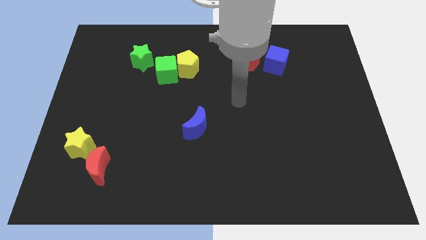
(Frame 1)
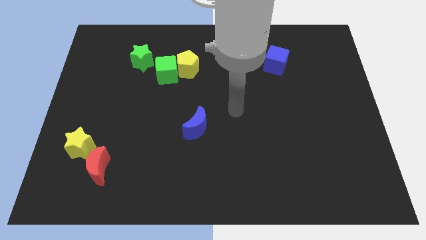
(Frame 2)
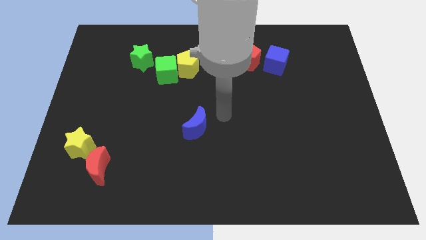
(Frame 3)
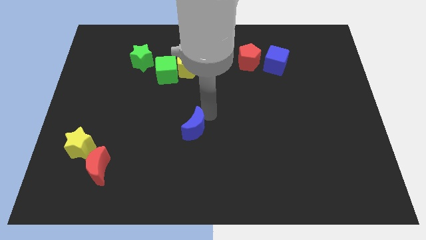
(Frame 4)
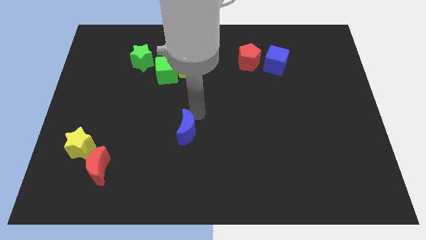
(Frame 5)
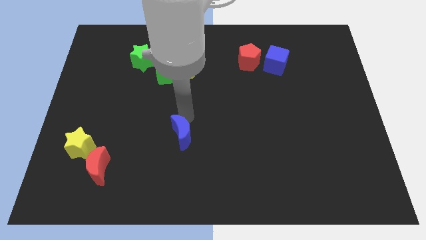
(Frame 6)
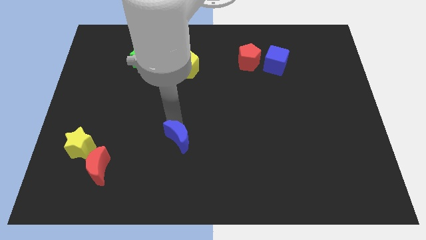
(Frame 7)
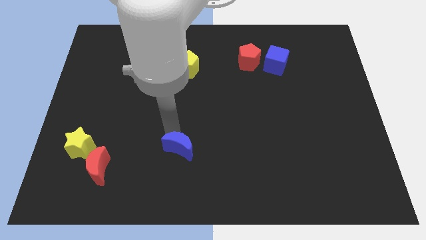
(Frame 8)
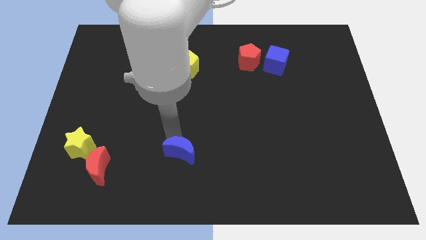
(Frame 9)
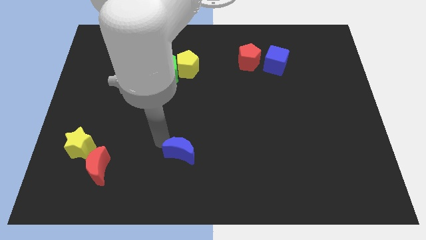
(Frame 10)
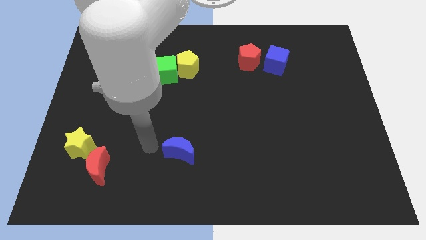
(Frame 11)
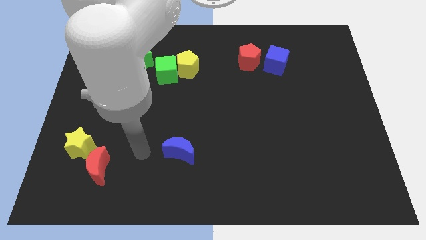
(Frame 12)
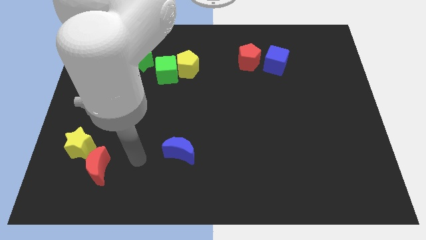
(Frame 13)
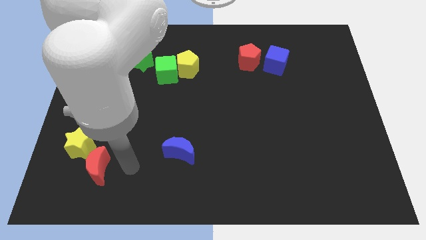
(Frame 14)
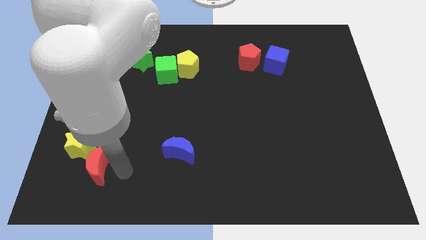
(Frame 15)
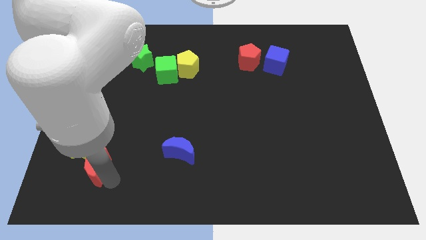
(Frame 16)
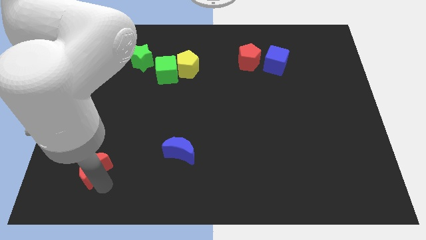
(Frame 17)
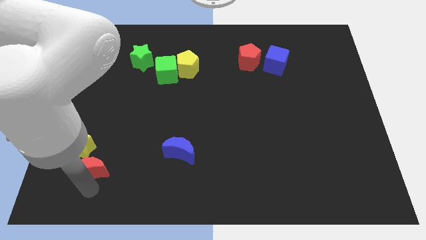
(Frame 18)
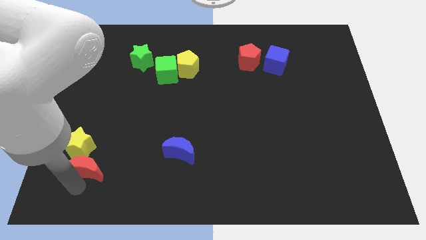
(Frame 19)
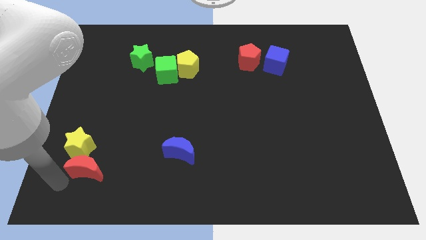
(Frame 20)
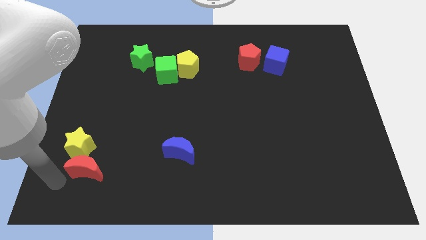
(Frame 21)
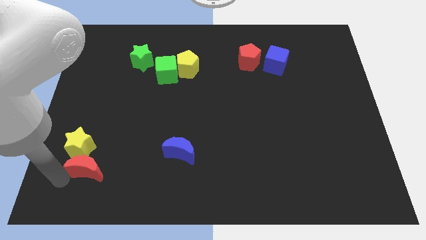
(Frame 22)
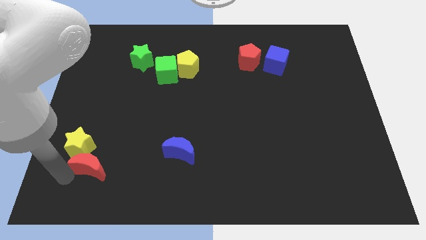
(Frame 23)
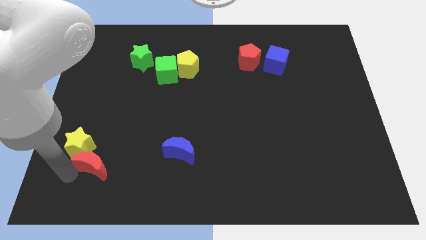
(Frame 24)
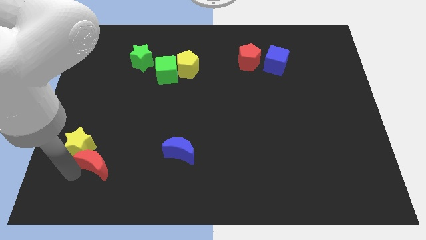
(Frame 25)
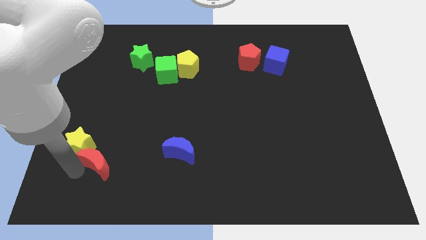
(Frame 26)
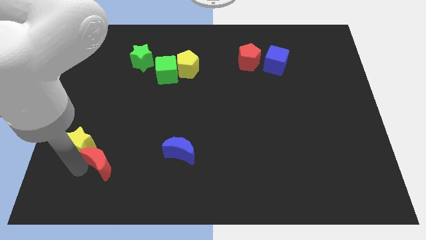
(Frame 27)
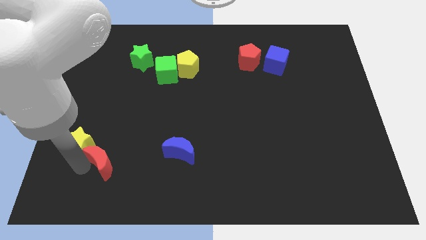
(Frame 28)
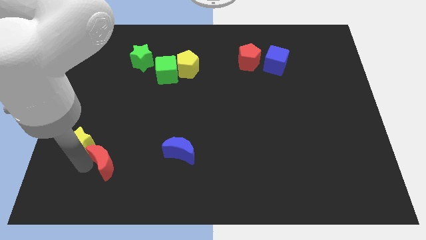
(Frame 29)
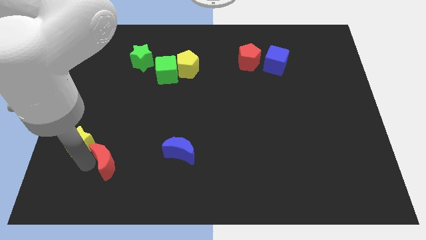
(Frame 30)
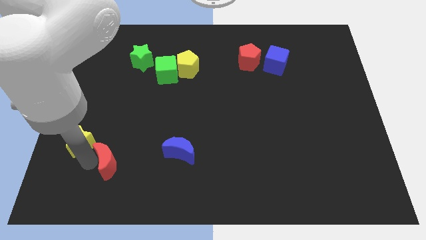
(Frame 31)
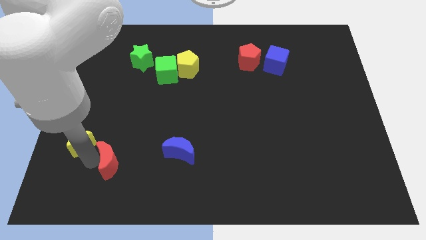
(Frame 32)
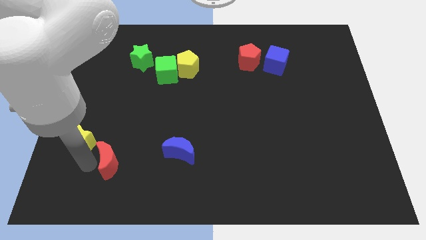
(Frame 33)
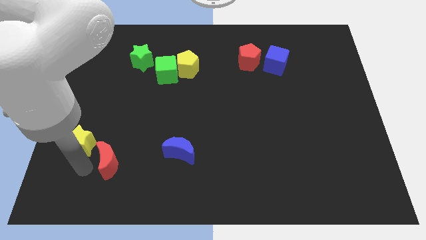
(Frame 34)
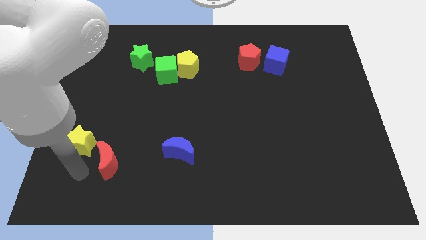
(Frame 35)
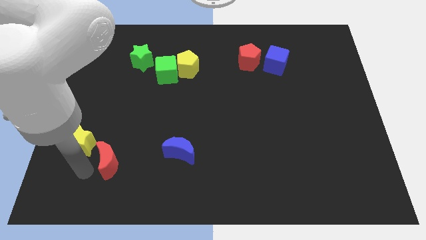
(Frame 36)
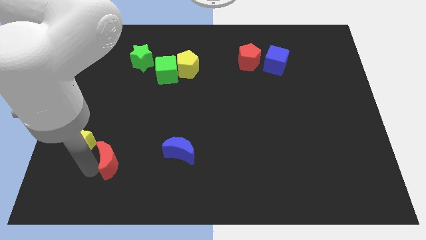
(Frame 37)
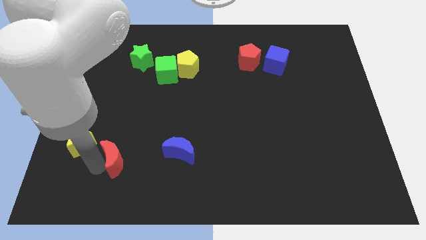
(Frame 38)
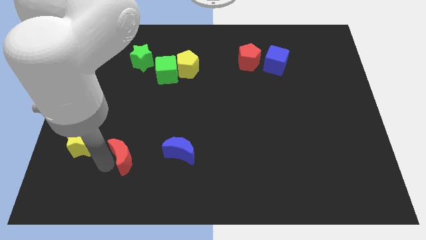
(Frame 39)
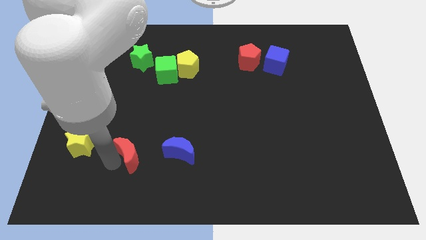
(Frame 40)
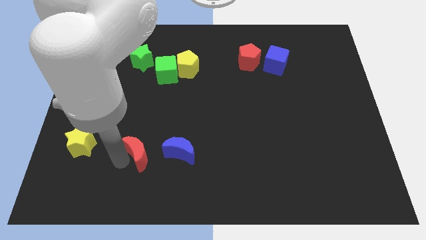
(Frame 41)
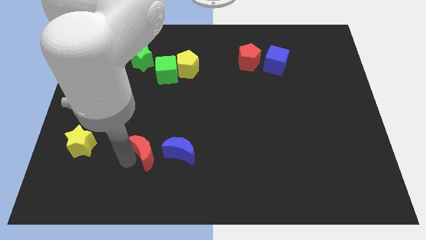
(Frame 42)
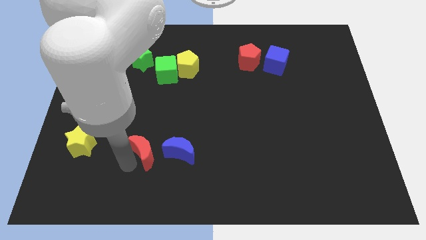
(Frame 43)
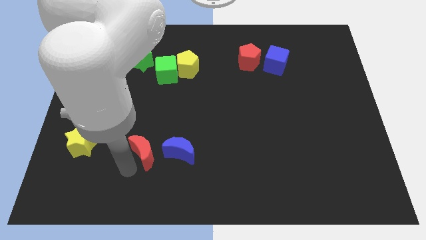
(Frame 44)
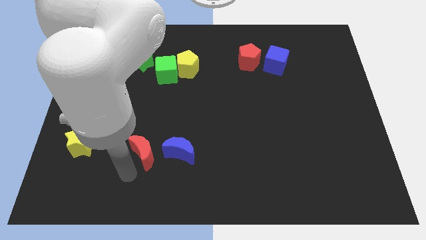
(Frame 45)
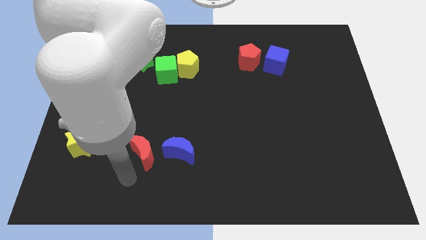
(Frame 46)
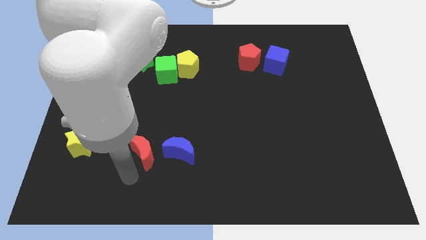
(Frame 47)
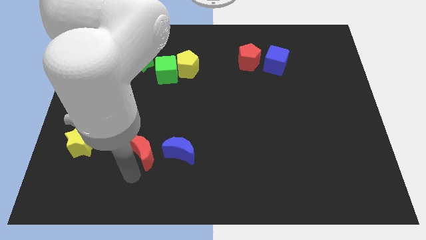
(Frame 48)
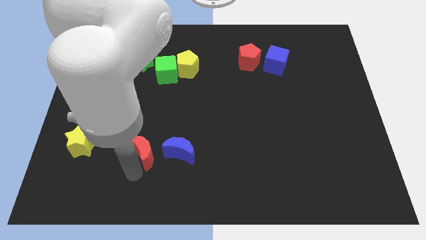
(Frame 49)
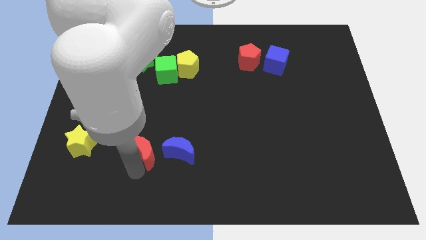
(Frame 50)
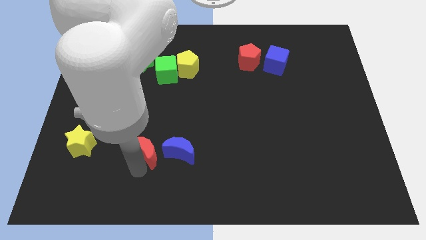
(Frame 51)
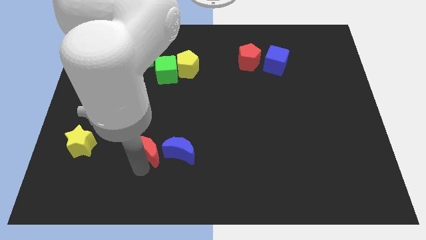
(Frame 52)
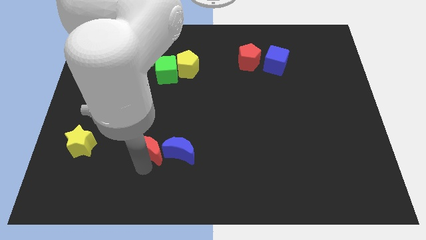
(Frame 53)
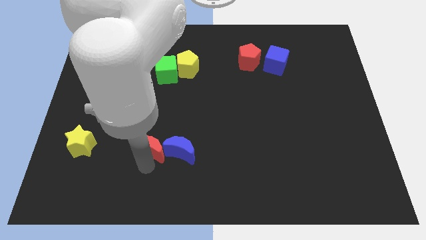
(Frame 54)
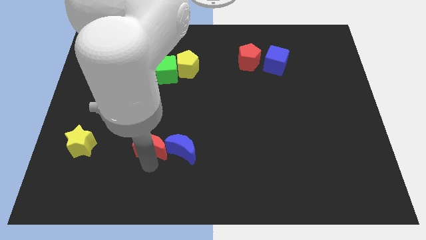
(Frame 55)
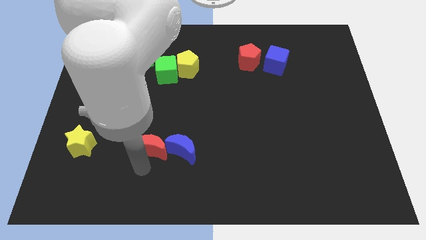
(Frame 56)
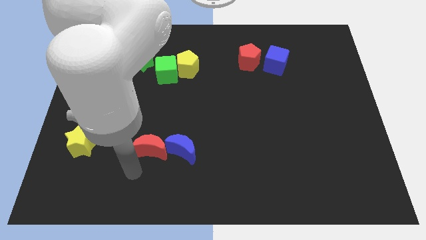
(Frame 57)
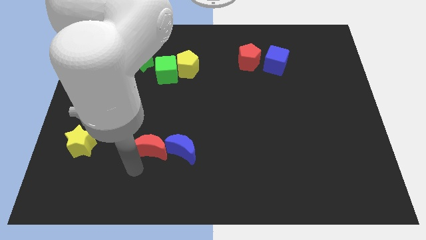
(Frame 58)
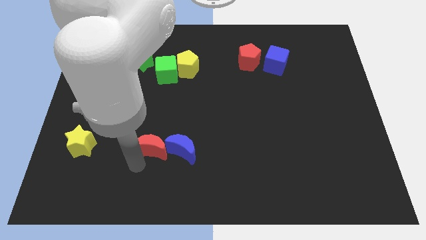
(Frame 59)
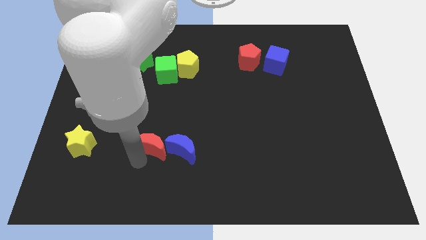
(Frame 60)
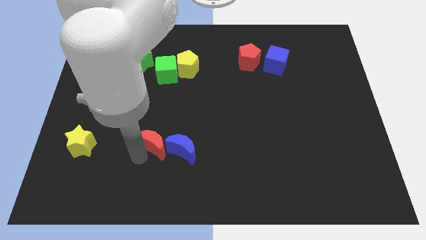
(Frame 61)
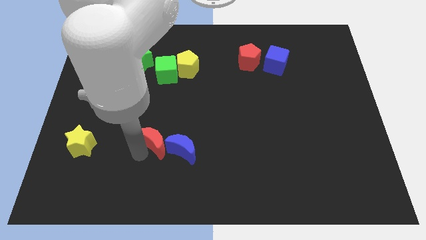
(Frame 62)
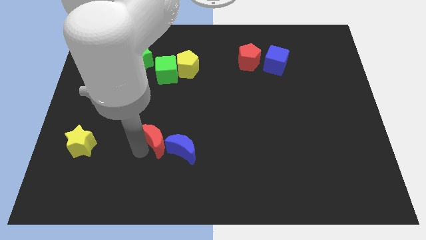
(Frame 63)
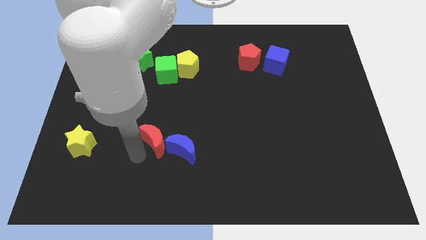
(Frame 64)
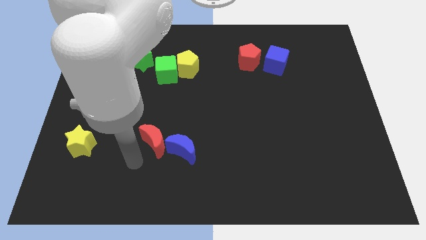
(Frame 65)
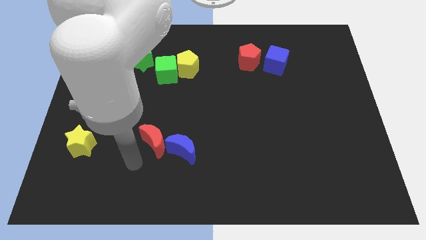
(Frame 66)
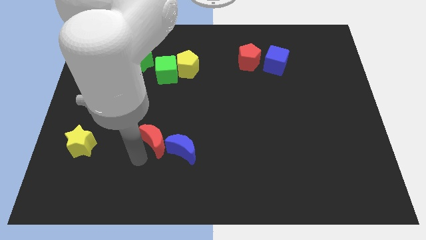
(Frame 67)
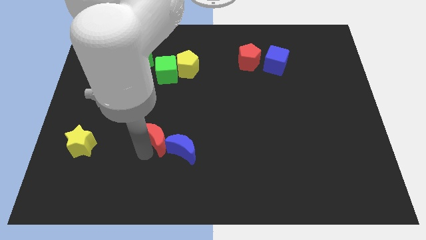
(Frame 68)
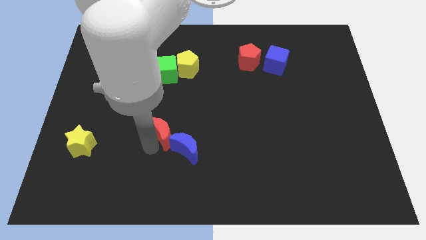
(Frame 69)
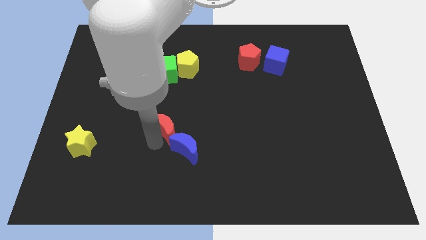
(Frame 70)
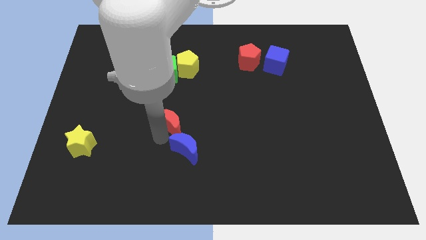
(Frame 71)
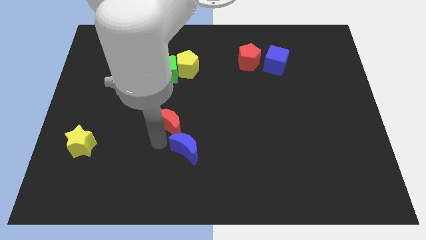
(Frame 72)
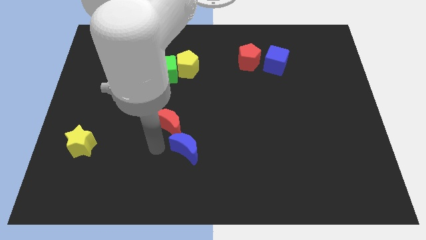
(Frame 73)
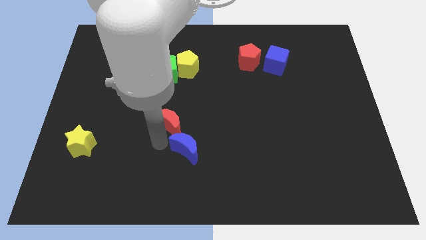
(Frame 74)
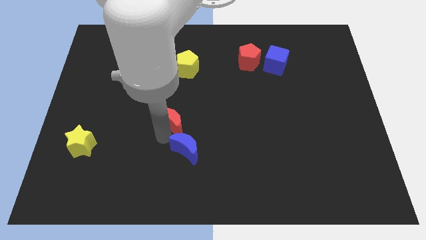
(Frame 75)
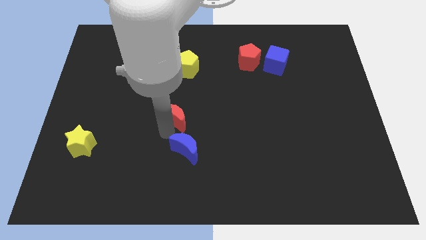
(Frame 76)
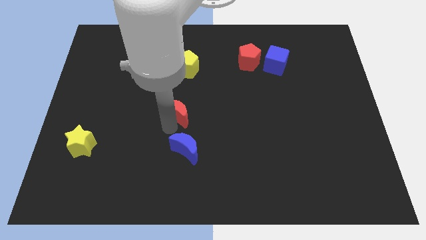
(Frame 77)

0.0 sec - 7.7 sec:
slide the red moon diagonally upwards and to the right
